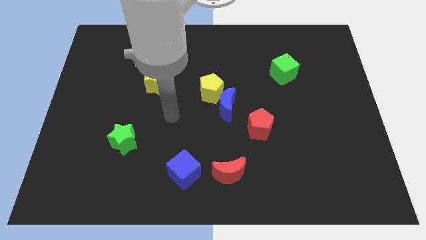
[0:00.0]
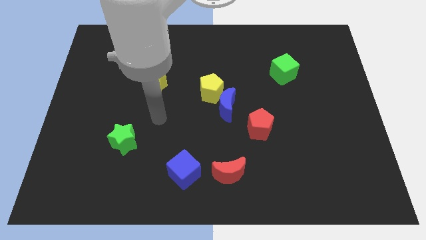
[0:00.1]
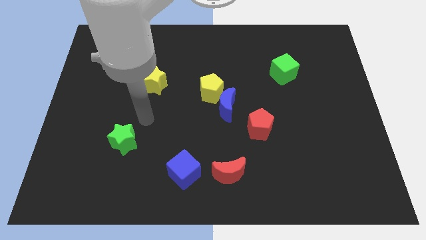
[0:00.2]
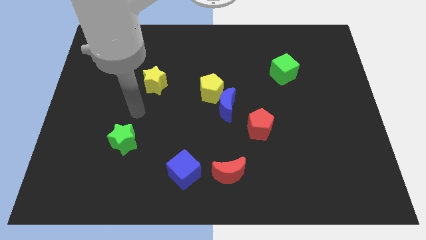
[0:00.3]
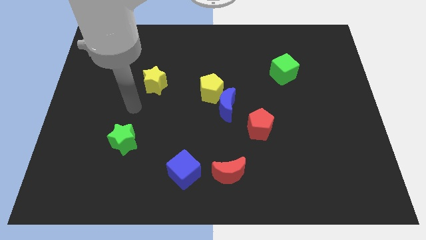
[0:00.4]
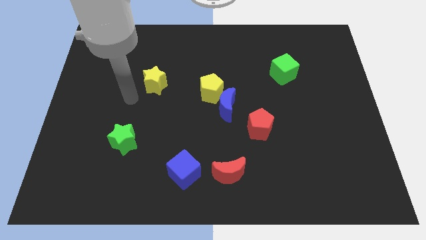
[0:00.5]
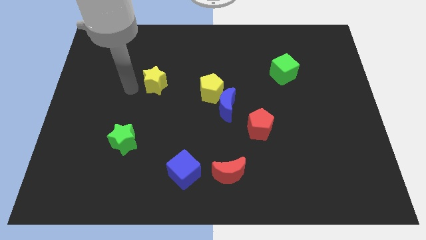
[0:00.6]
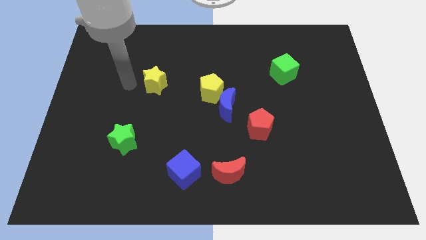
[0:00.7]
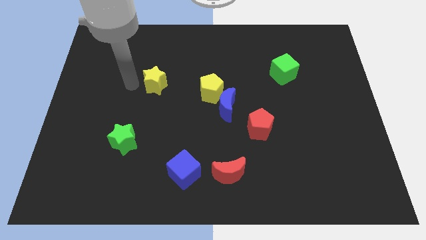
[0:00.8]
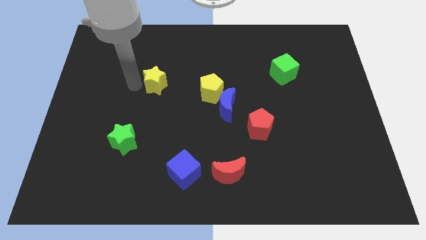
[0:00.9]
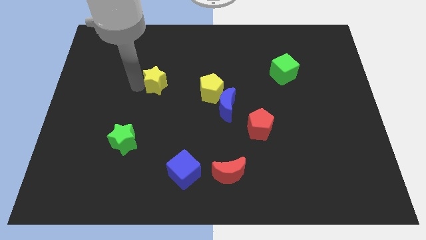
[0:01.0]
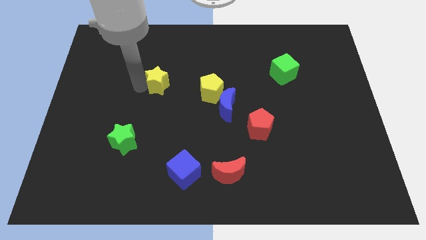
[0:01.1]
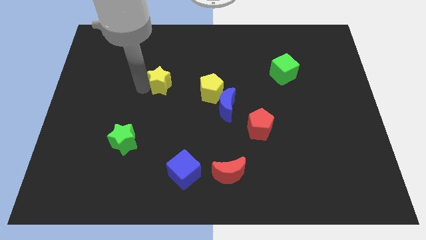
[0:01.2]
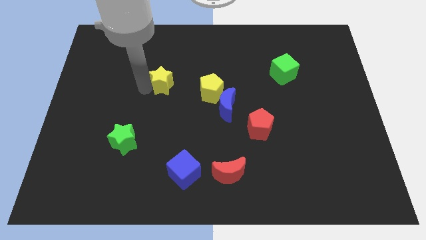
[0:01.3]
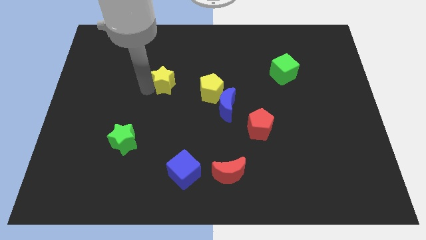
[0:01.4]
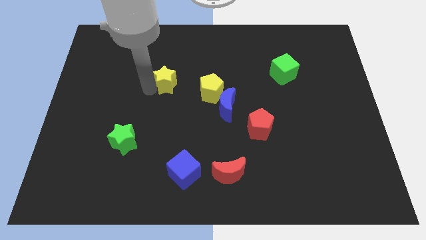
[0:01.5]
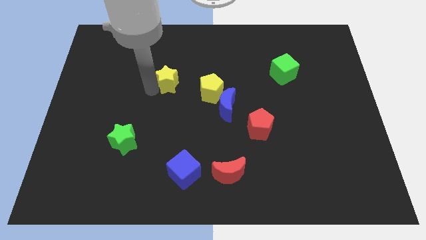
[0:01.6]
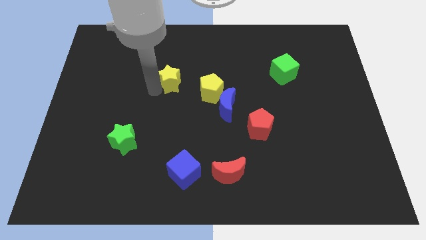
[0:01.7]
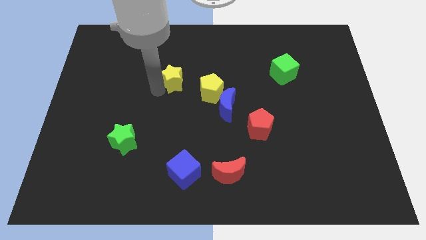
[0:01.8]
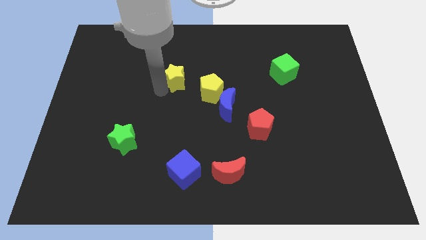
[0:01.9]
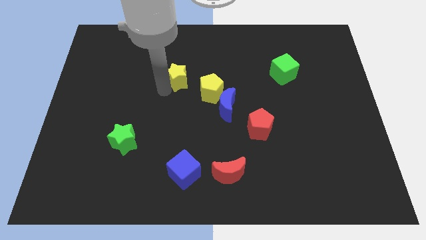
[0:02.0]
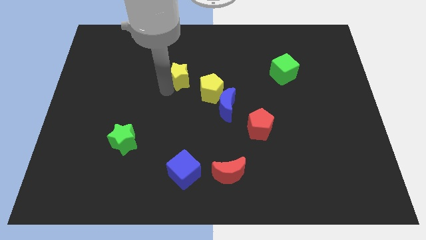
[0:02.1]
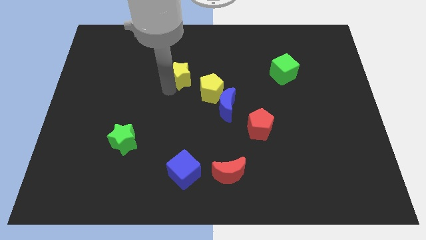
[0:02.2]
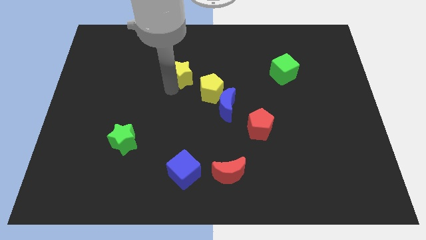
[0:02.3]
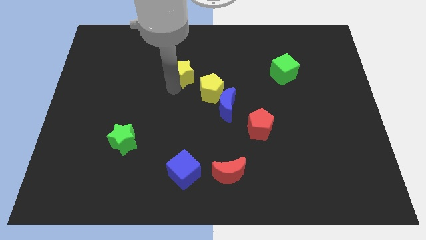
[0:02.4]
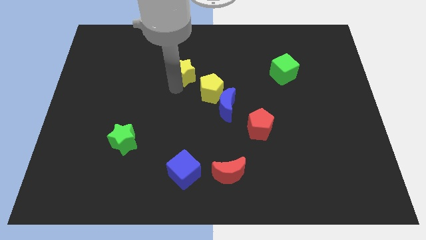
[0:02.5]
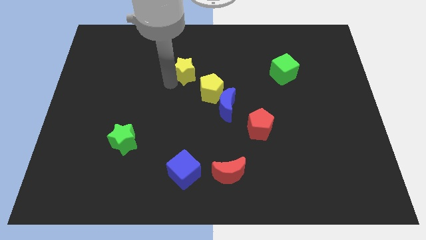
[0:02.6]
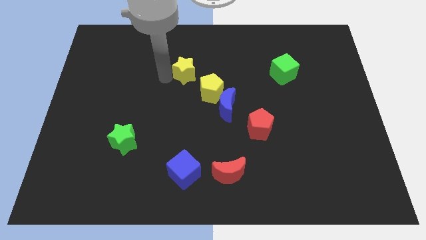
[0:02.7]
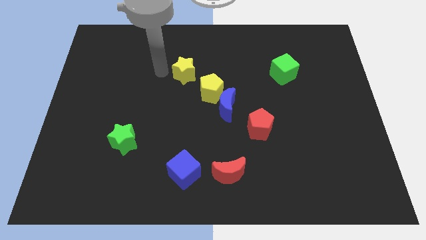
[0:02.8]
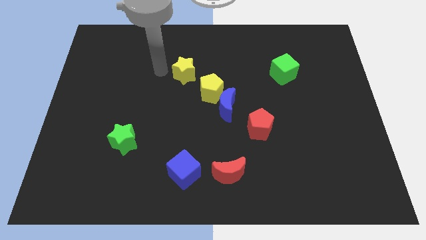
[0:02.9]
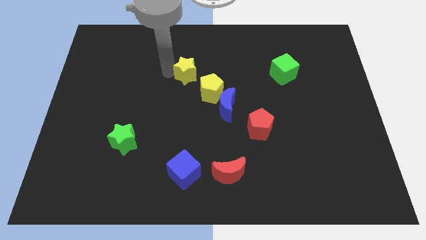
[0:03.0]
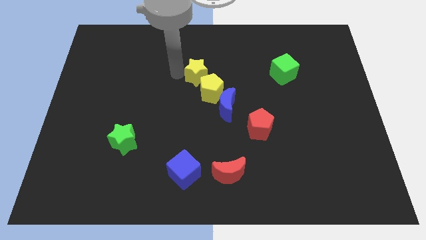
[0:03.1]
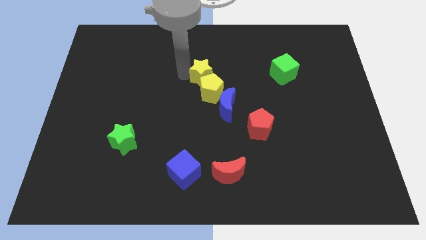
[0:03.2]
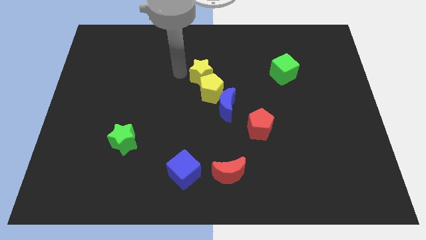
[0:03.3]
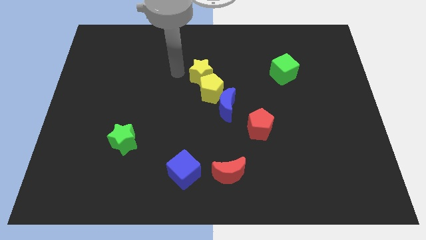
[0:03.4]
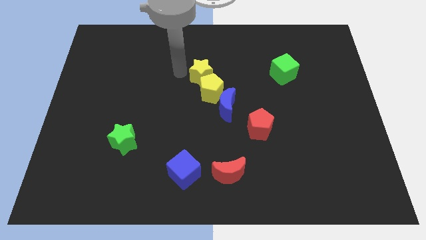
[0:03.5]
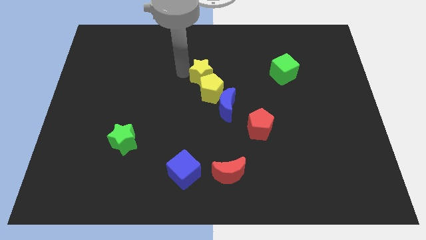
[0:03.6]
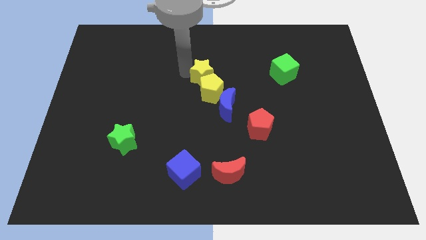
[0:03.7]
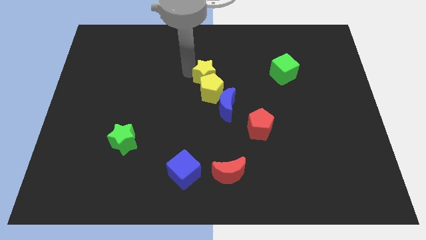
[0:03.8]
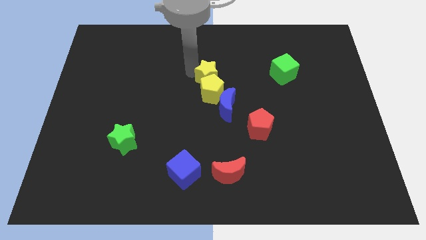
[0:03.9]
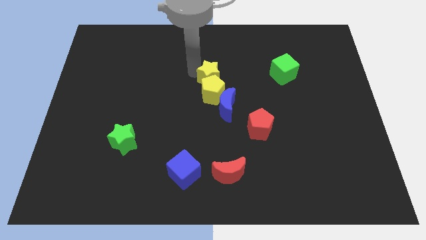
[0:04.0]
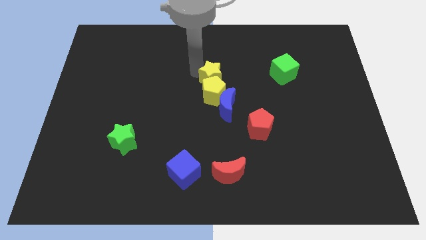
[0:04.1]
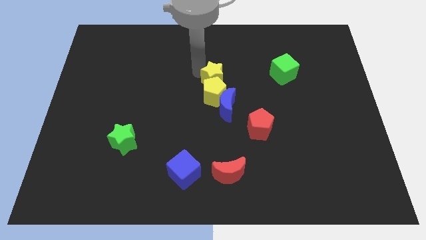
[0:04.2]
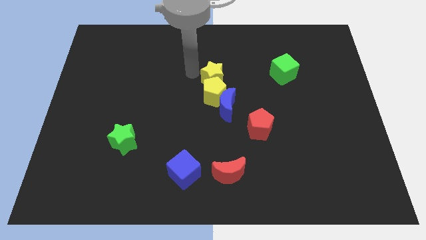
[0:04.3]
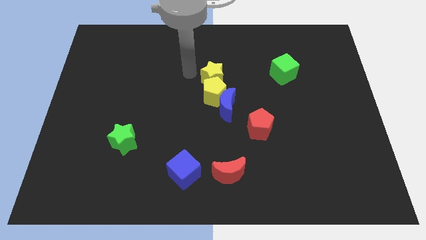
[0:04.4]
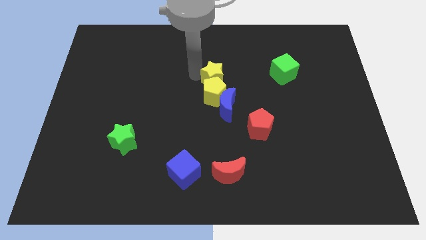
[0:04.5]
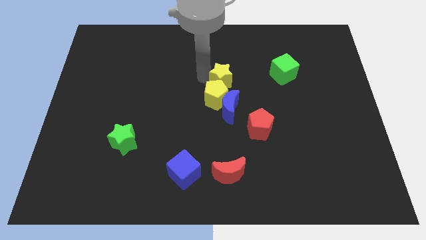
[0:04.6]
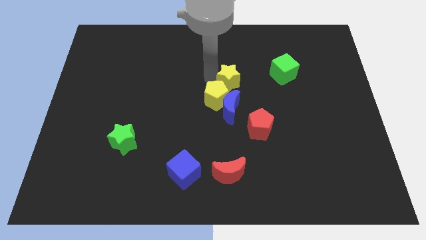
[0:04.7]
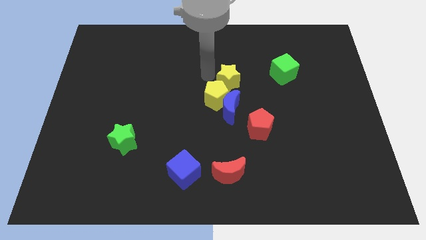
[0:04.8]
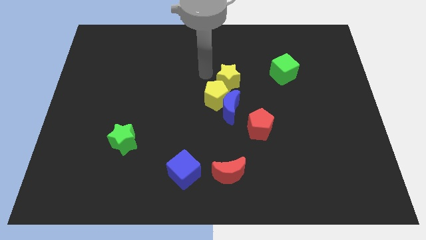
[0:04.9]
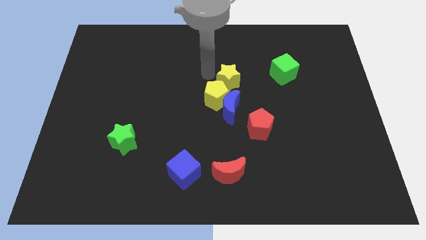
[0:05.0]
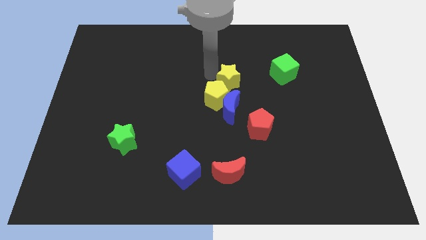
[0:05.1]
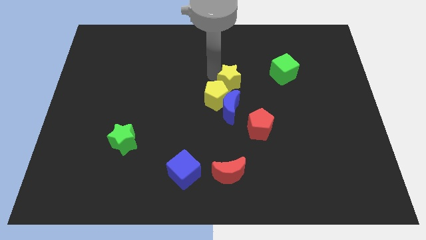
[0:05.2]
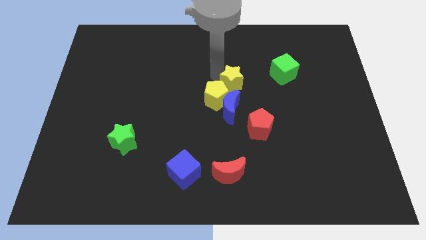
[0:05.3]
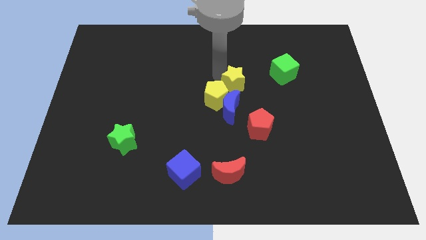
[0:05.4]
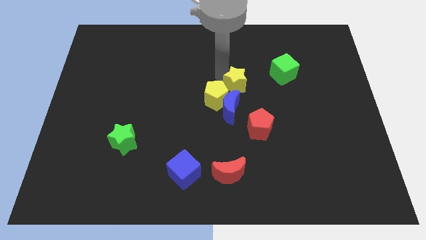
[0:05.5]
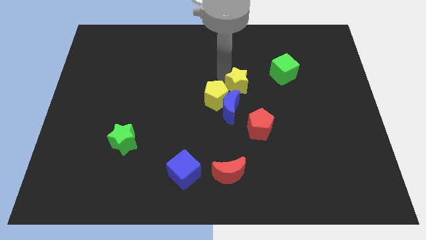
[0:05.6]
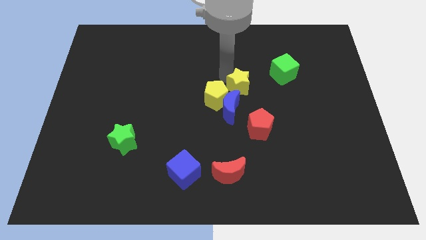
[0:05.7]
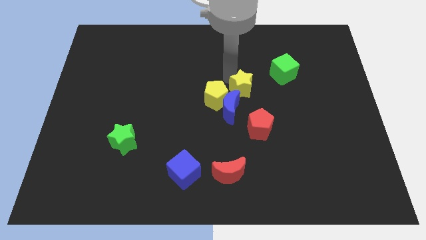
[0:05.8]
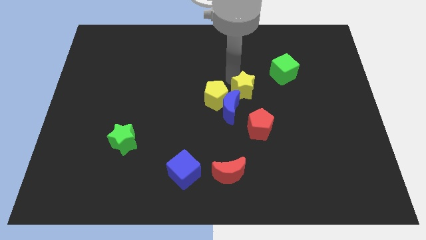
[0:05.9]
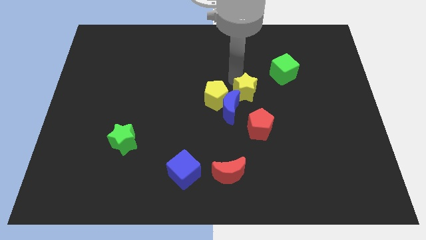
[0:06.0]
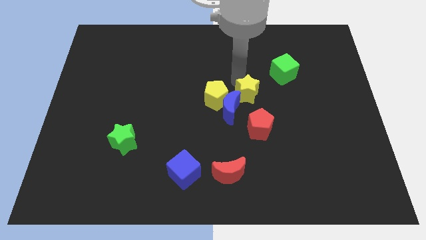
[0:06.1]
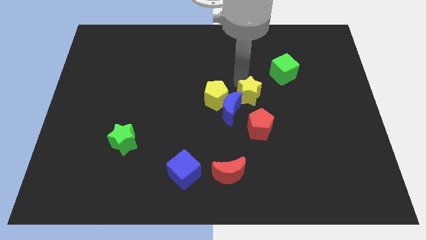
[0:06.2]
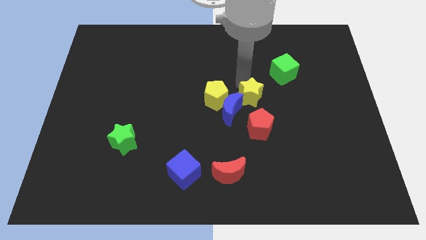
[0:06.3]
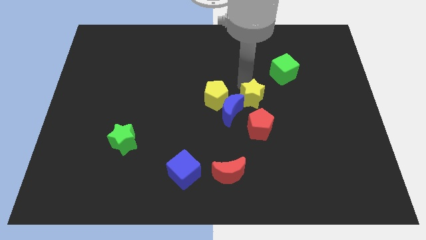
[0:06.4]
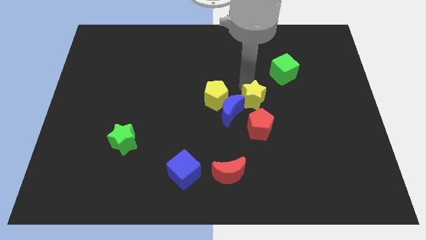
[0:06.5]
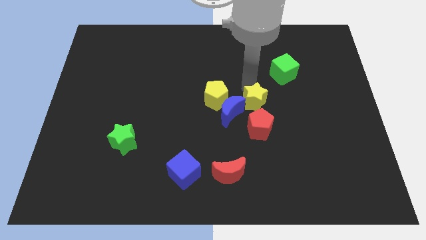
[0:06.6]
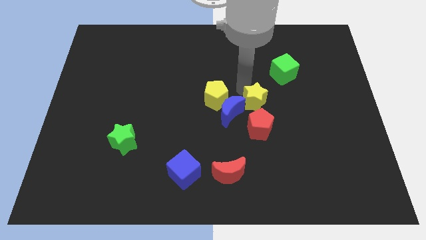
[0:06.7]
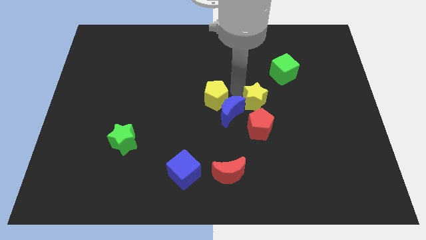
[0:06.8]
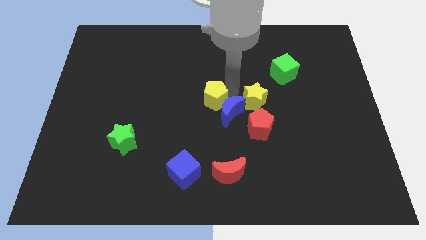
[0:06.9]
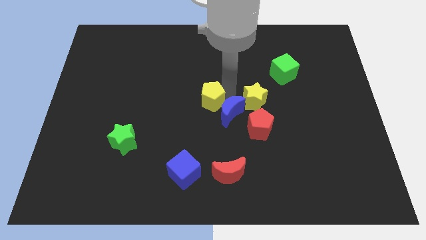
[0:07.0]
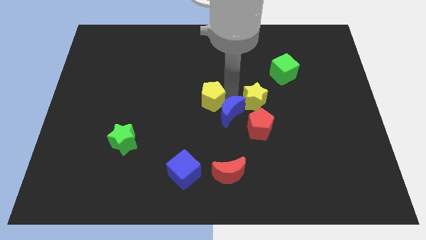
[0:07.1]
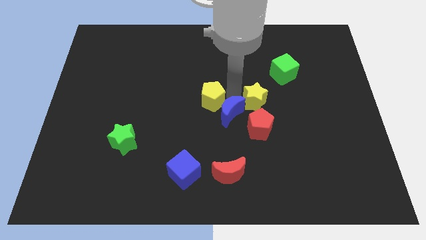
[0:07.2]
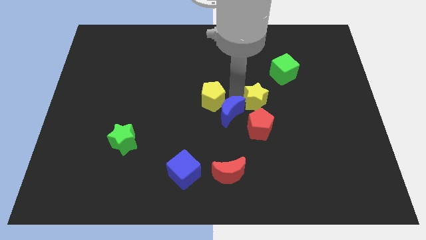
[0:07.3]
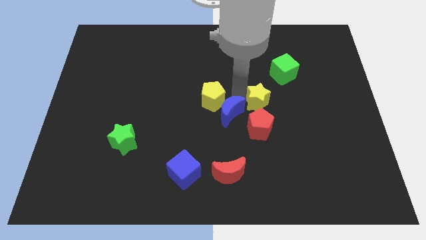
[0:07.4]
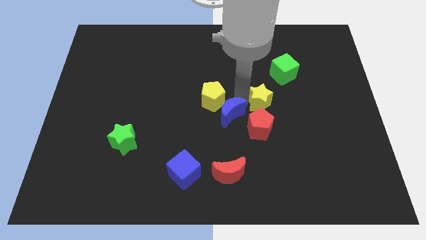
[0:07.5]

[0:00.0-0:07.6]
move the yellow star diagonally up and to the right of the red pentagon
